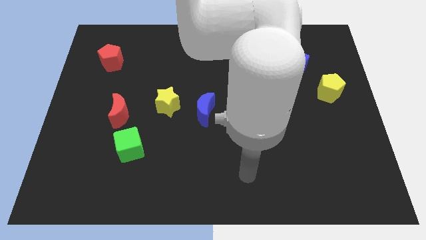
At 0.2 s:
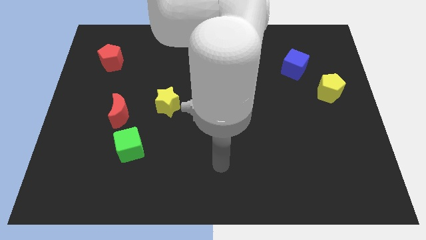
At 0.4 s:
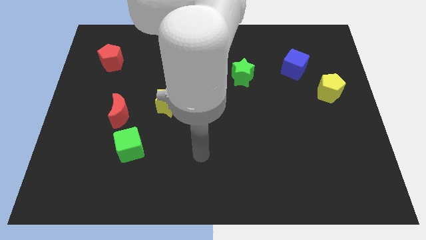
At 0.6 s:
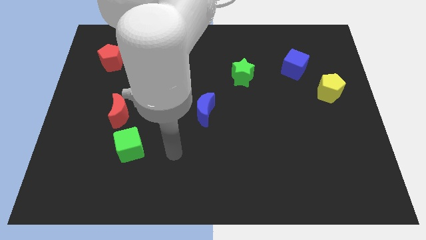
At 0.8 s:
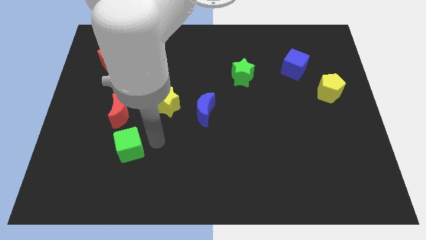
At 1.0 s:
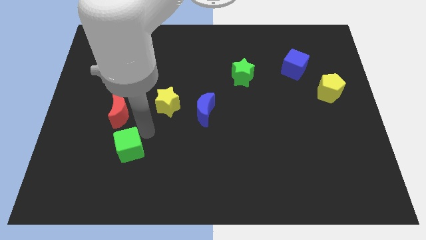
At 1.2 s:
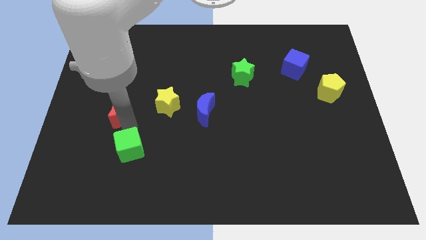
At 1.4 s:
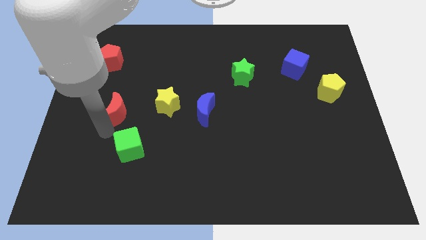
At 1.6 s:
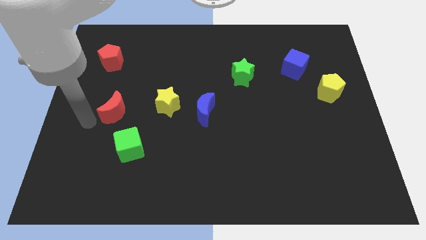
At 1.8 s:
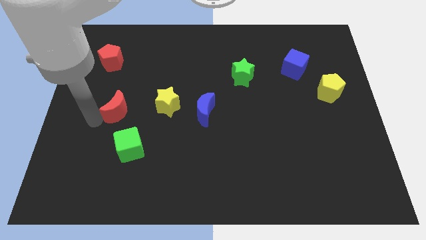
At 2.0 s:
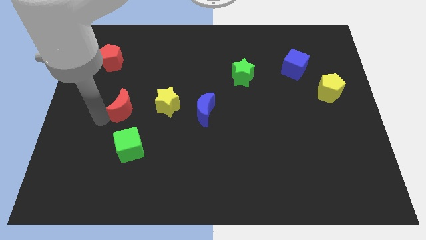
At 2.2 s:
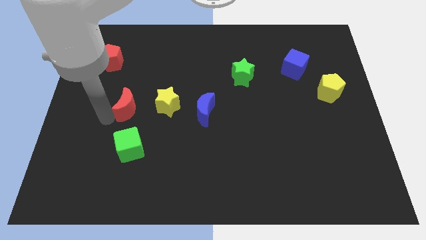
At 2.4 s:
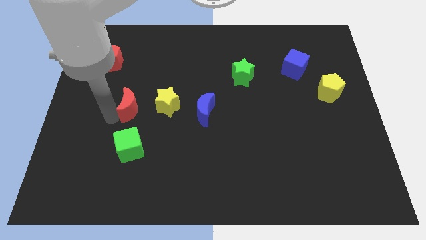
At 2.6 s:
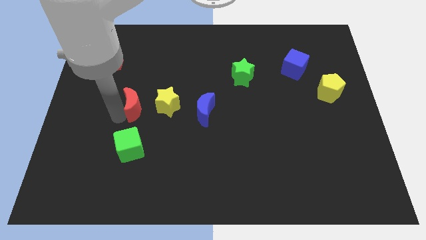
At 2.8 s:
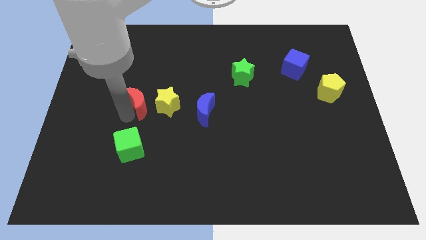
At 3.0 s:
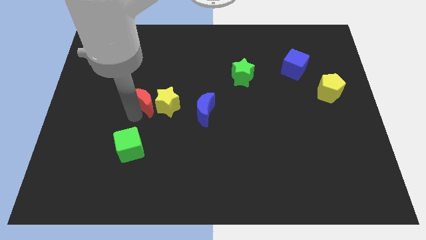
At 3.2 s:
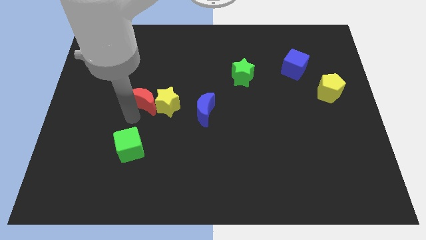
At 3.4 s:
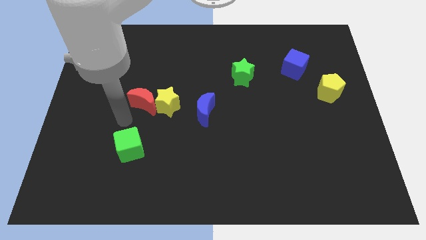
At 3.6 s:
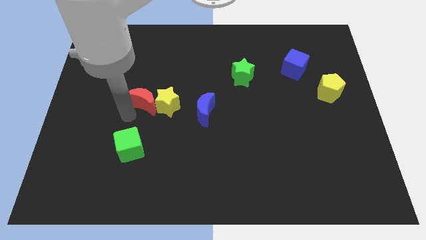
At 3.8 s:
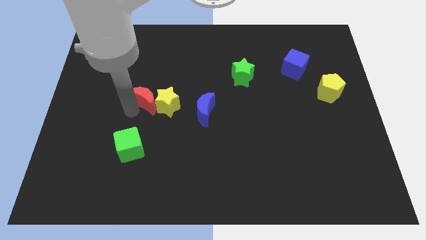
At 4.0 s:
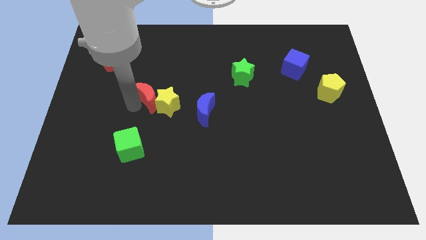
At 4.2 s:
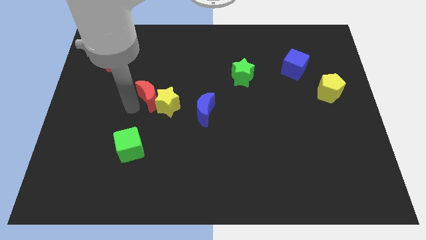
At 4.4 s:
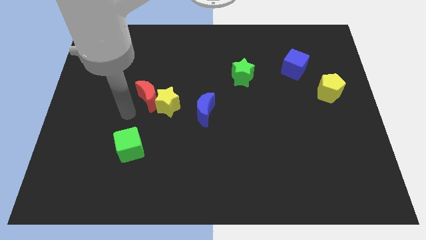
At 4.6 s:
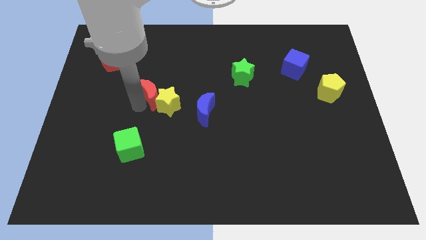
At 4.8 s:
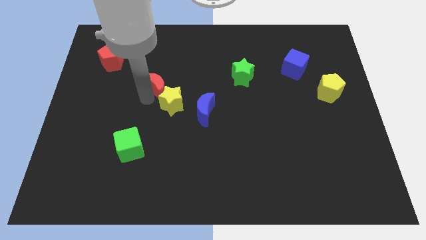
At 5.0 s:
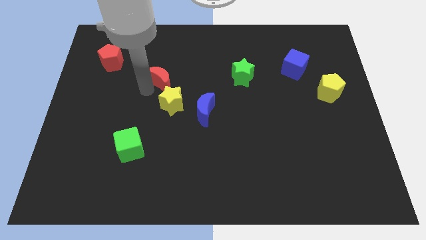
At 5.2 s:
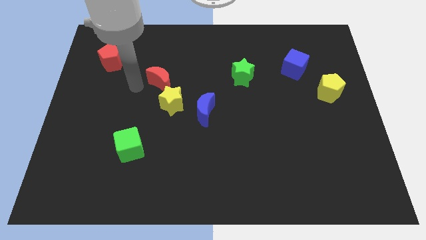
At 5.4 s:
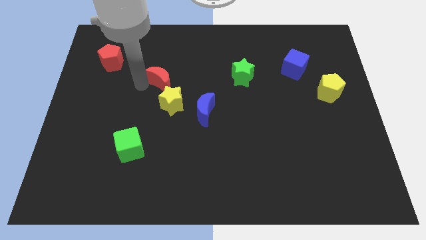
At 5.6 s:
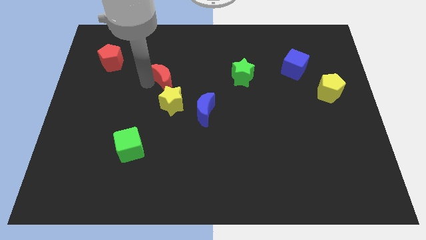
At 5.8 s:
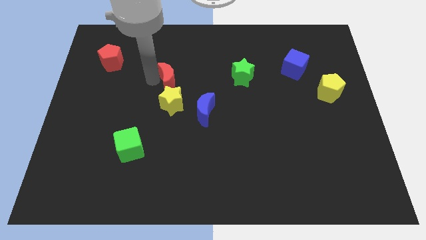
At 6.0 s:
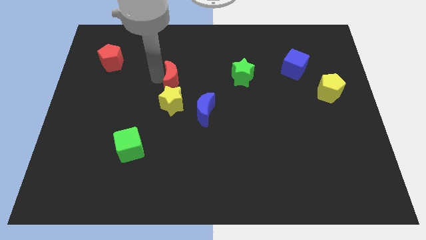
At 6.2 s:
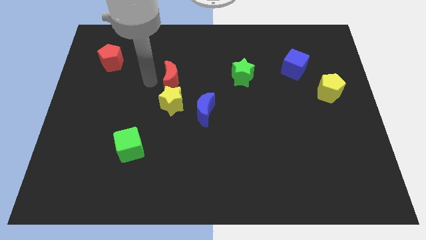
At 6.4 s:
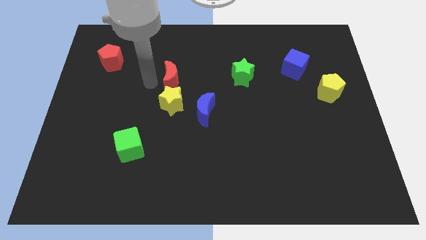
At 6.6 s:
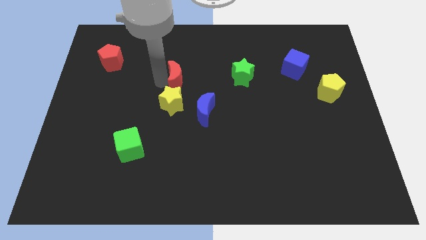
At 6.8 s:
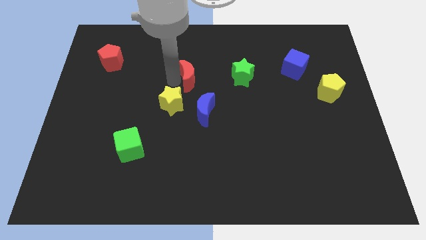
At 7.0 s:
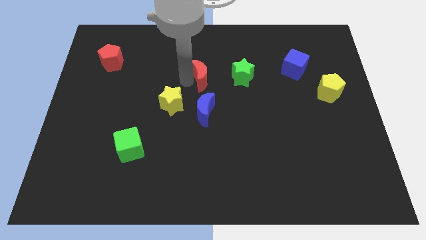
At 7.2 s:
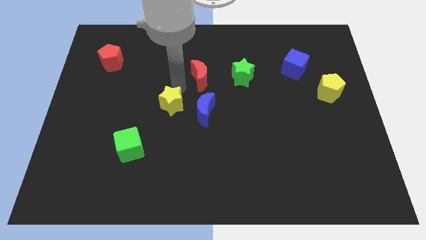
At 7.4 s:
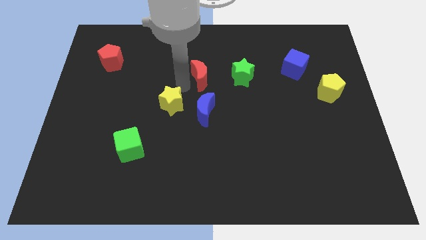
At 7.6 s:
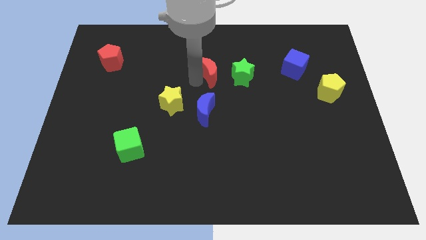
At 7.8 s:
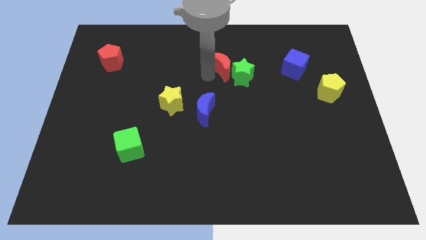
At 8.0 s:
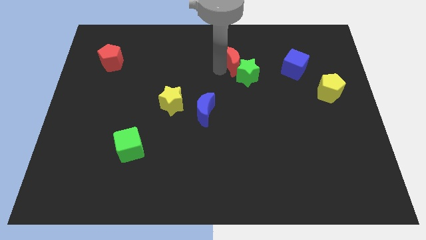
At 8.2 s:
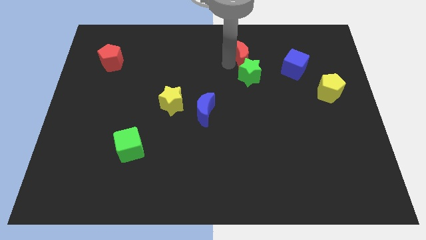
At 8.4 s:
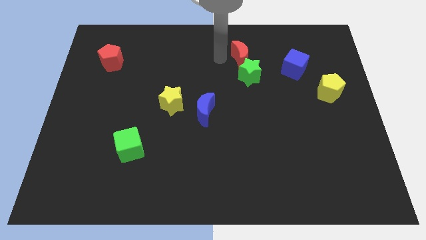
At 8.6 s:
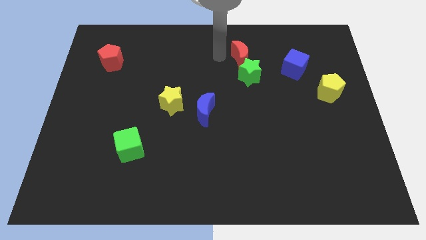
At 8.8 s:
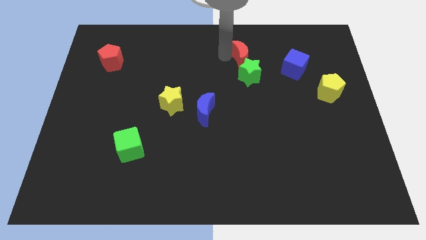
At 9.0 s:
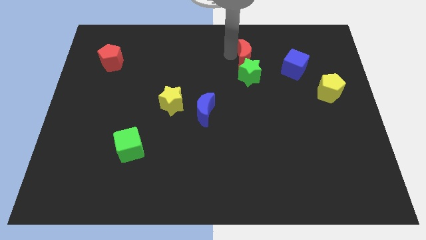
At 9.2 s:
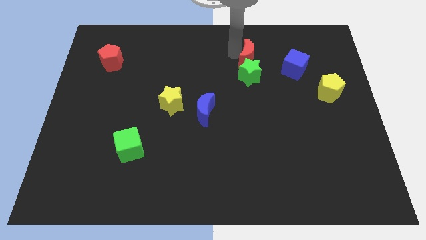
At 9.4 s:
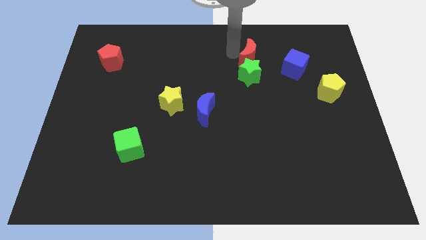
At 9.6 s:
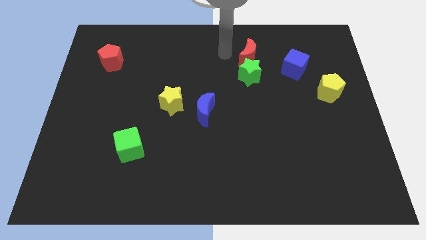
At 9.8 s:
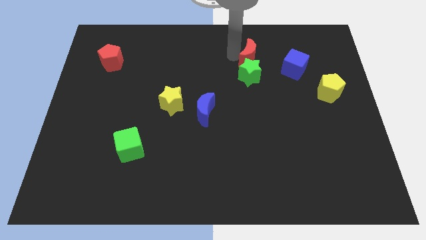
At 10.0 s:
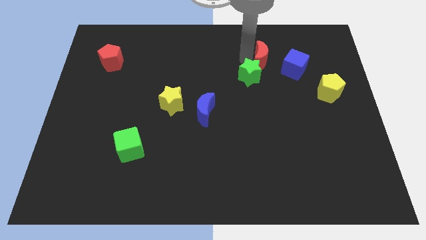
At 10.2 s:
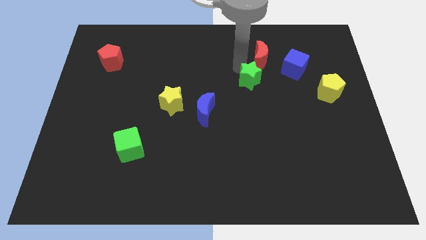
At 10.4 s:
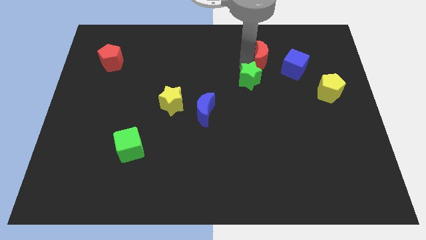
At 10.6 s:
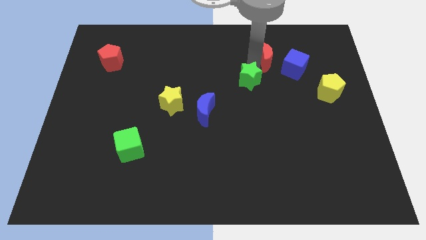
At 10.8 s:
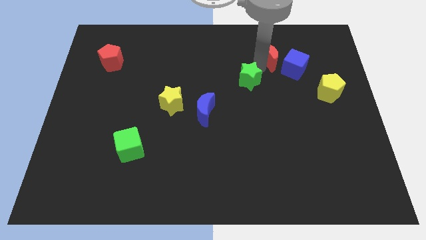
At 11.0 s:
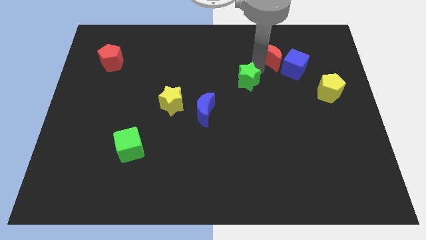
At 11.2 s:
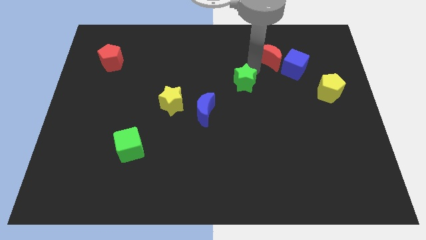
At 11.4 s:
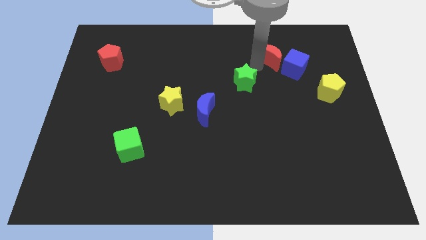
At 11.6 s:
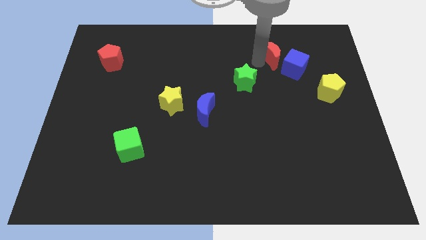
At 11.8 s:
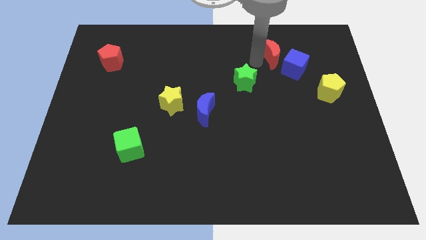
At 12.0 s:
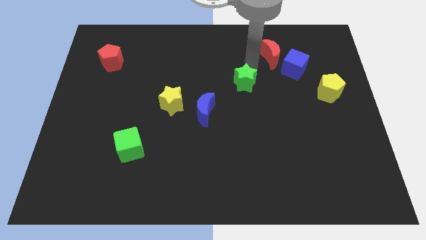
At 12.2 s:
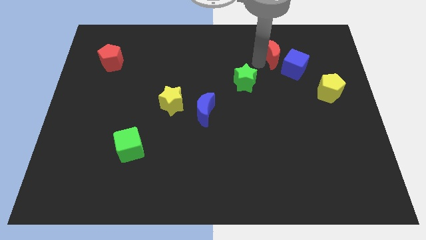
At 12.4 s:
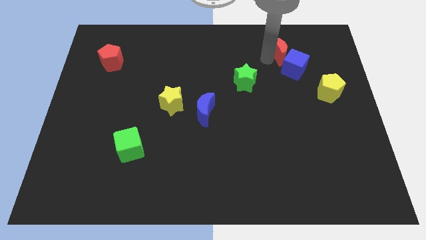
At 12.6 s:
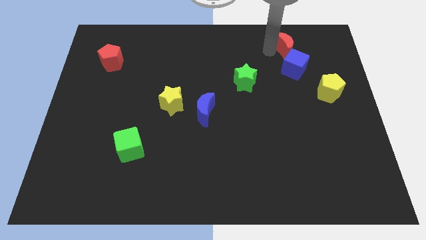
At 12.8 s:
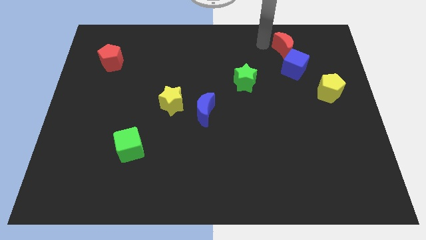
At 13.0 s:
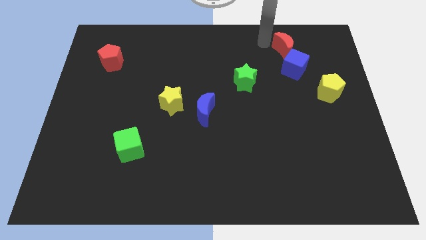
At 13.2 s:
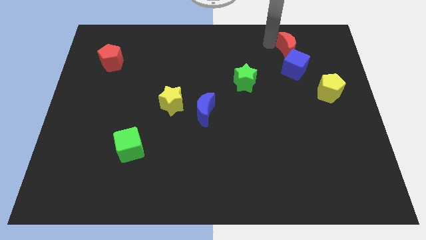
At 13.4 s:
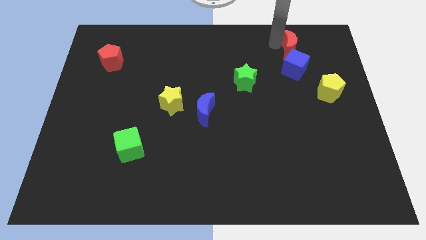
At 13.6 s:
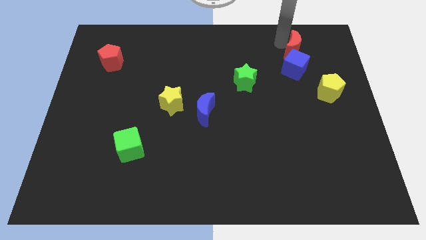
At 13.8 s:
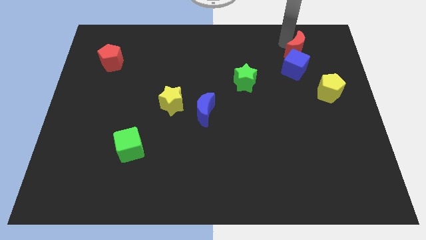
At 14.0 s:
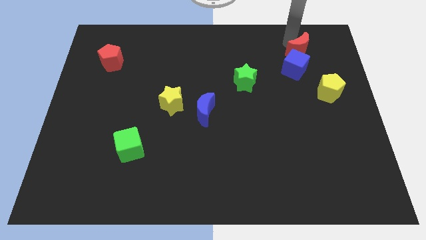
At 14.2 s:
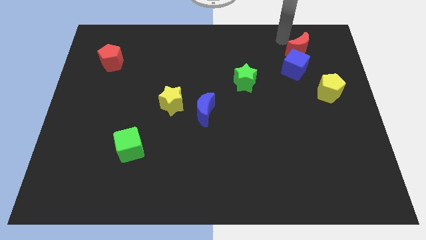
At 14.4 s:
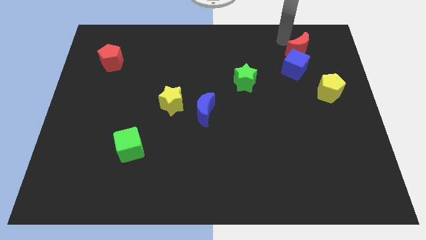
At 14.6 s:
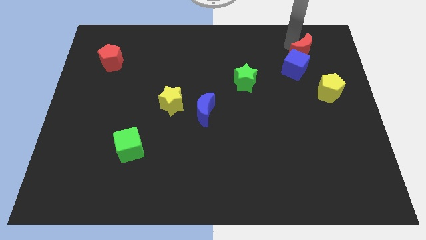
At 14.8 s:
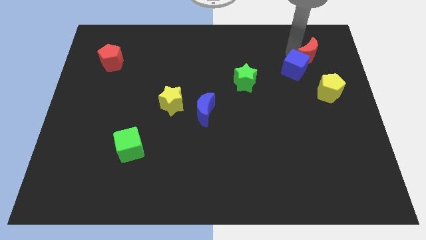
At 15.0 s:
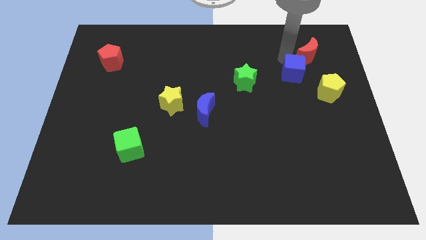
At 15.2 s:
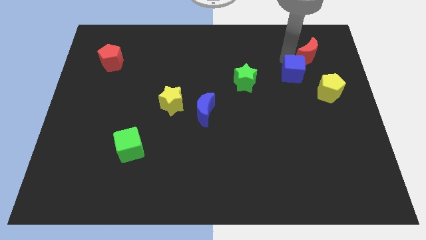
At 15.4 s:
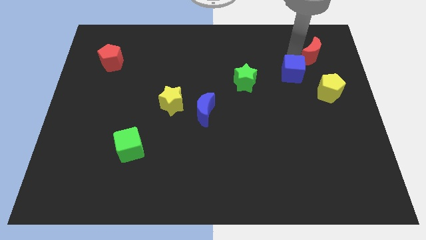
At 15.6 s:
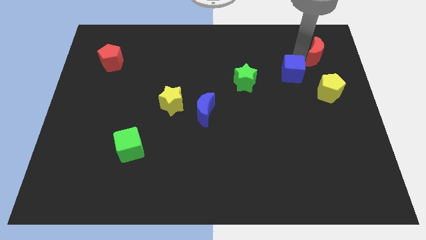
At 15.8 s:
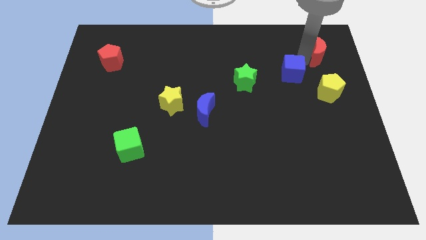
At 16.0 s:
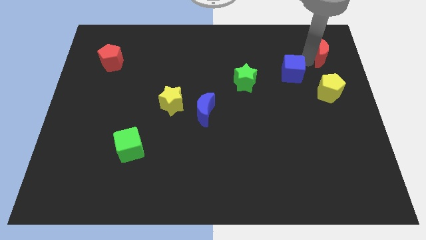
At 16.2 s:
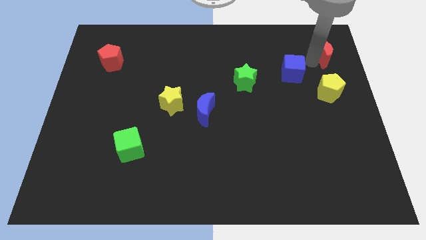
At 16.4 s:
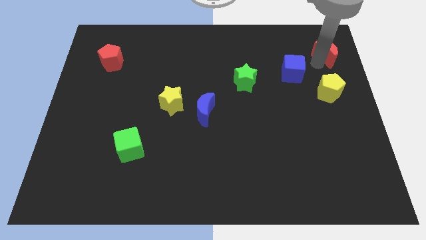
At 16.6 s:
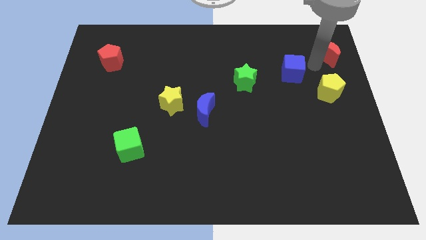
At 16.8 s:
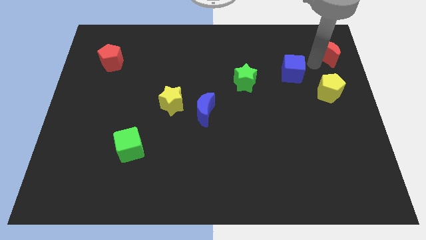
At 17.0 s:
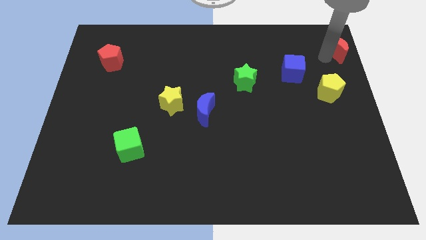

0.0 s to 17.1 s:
put the red moon to the top right of the board
